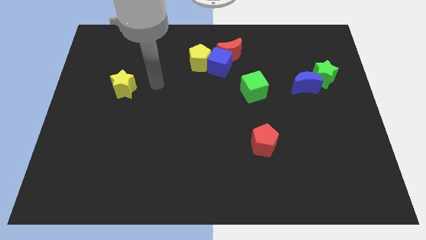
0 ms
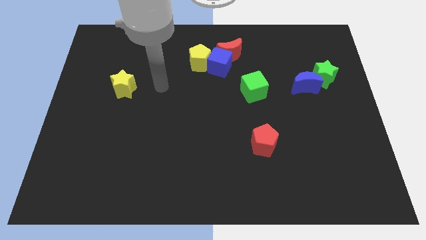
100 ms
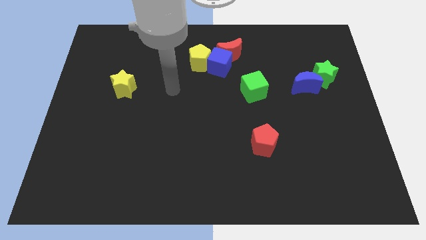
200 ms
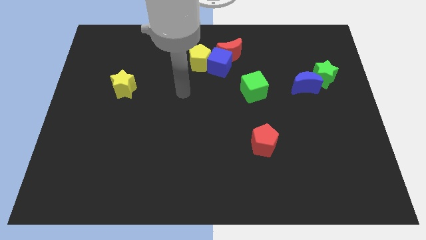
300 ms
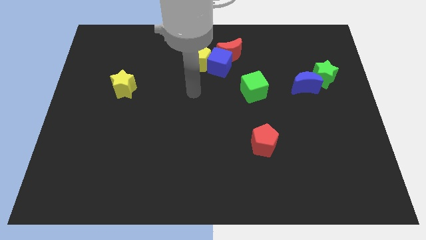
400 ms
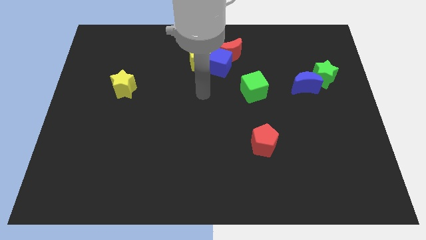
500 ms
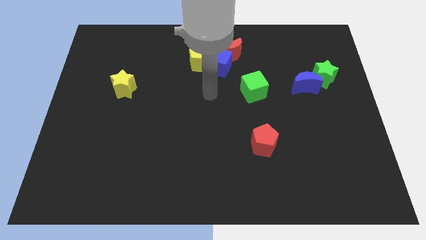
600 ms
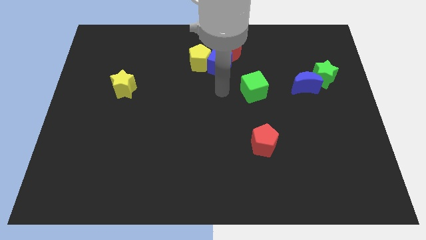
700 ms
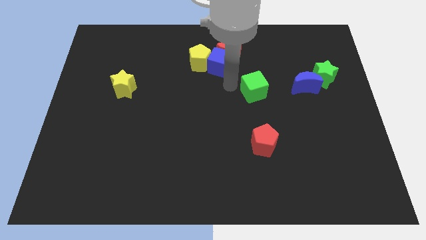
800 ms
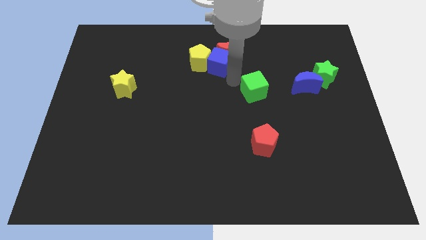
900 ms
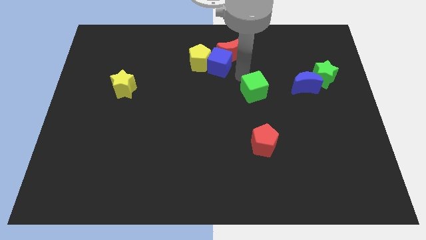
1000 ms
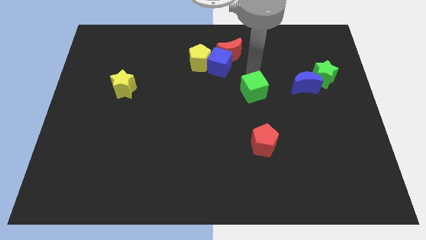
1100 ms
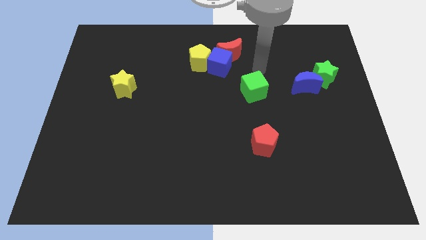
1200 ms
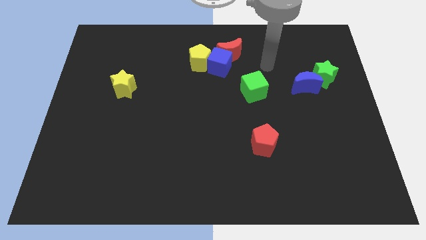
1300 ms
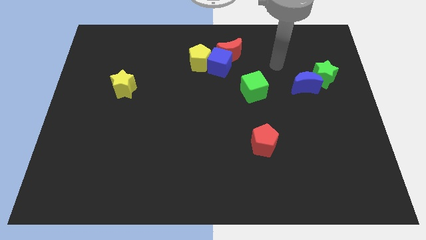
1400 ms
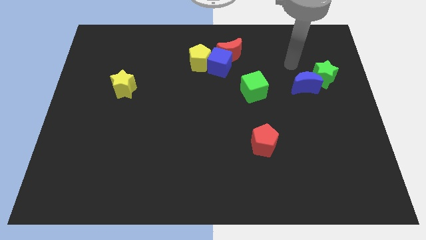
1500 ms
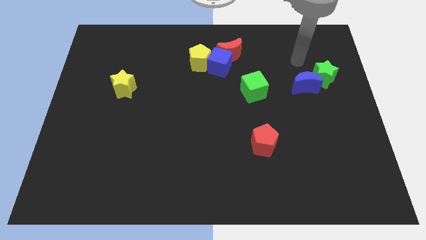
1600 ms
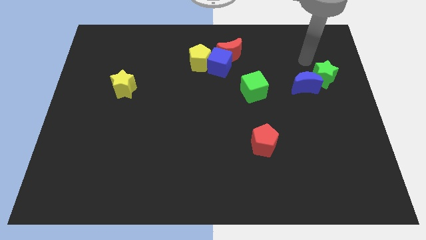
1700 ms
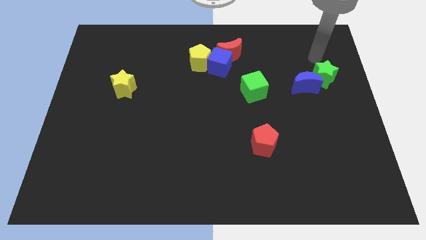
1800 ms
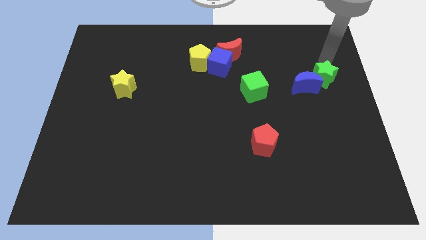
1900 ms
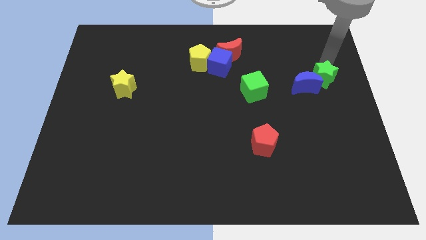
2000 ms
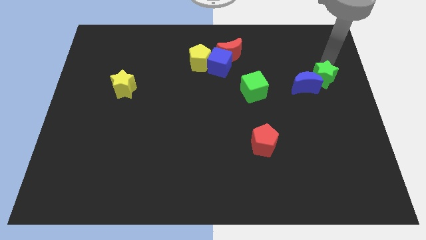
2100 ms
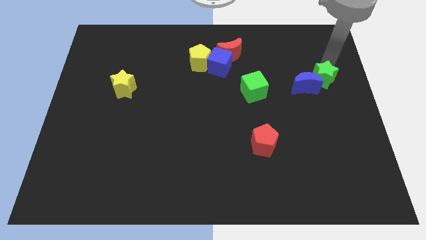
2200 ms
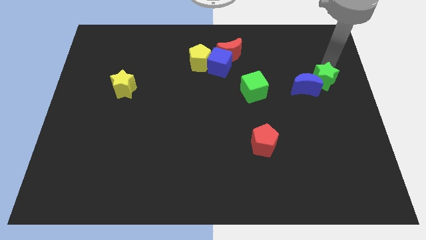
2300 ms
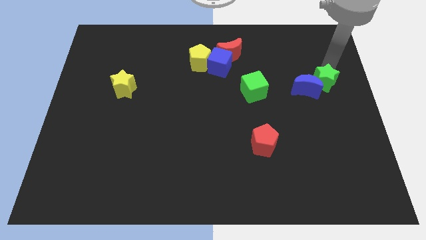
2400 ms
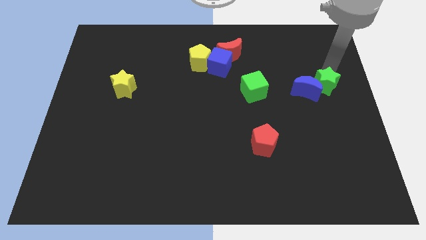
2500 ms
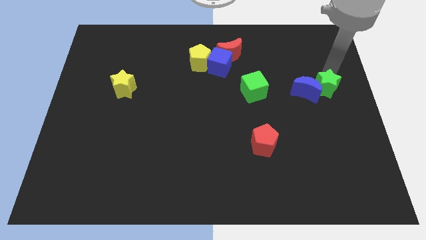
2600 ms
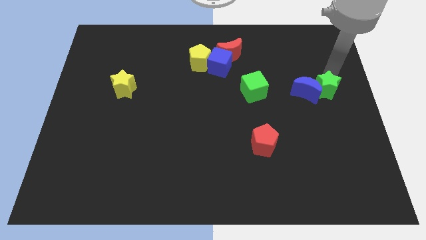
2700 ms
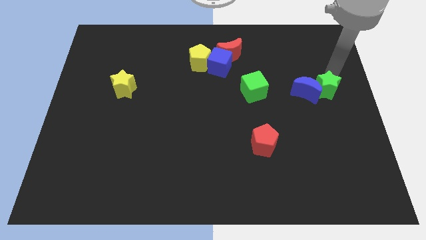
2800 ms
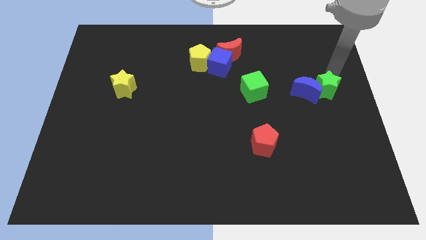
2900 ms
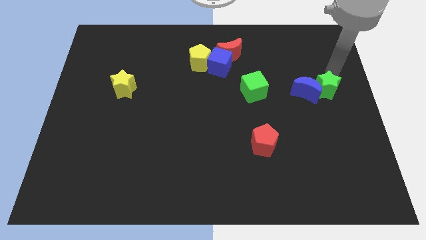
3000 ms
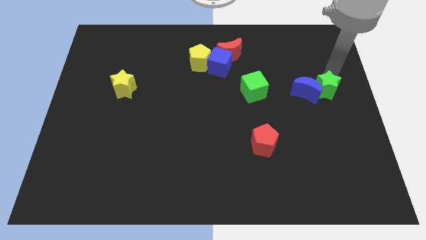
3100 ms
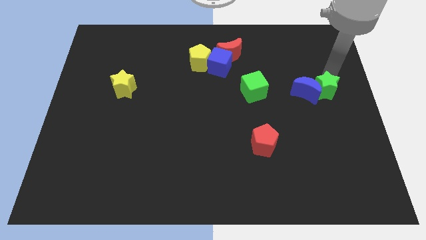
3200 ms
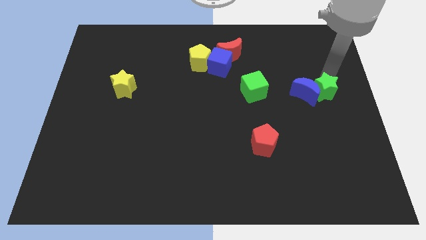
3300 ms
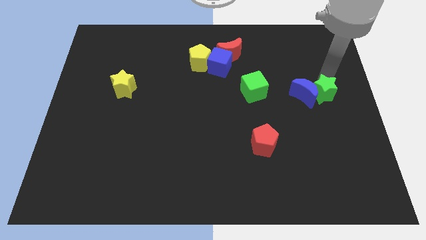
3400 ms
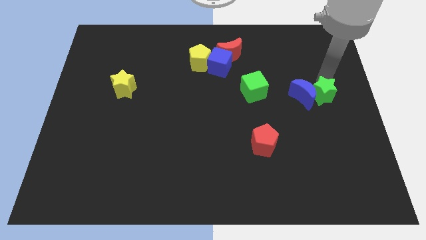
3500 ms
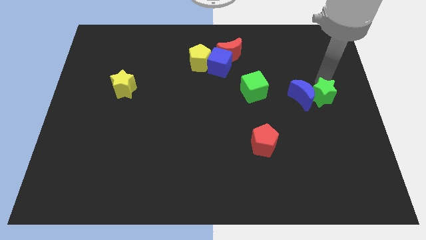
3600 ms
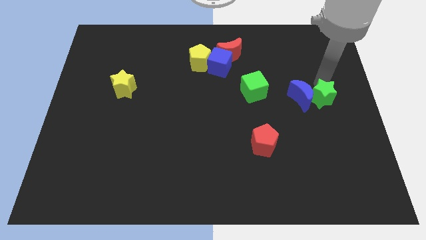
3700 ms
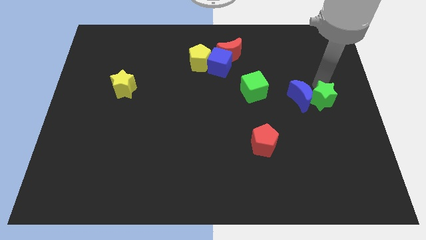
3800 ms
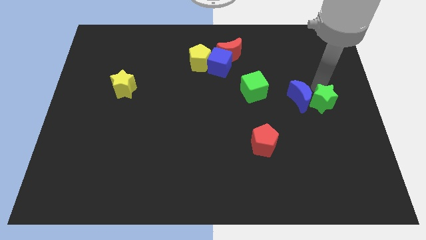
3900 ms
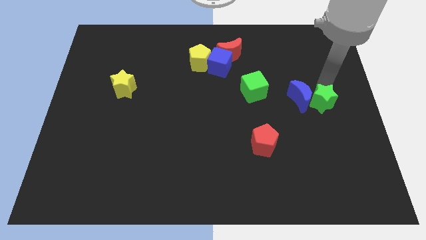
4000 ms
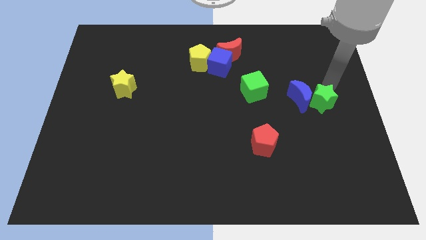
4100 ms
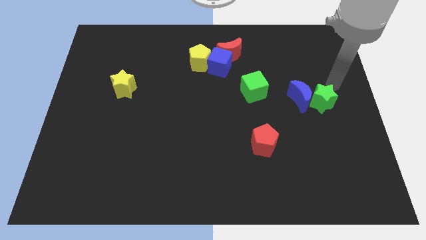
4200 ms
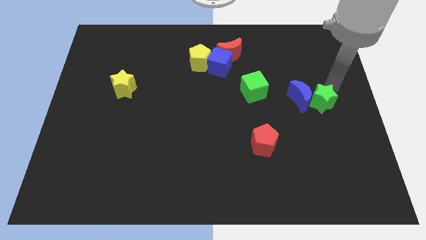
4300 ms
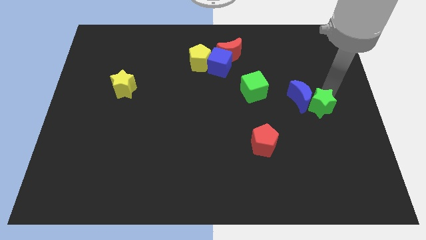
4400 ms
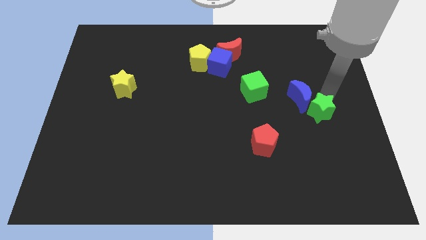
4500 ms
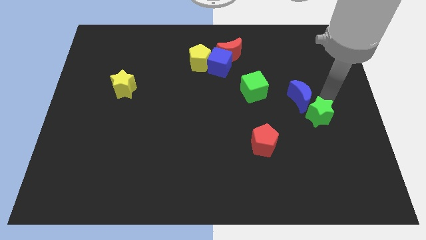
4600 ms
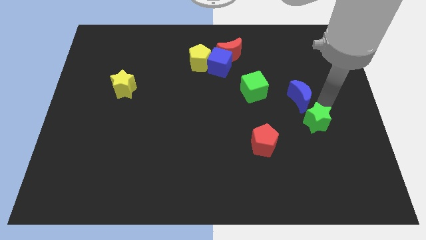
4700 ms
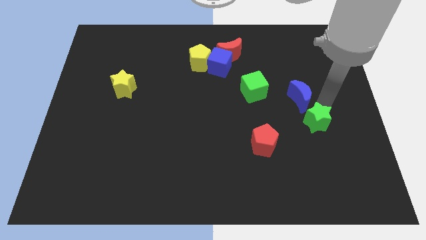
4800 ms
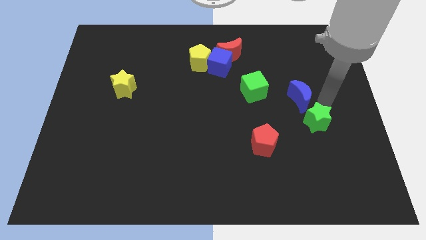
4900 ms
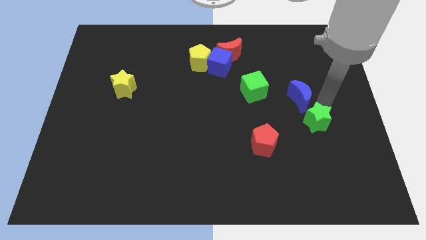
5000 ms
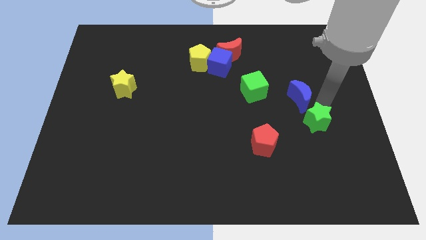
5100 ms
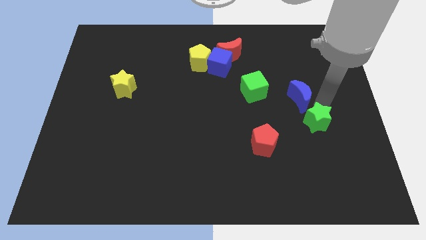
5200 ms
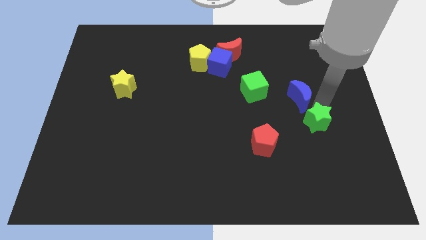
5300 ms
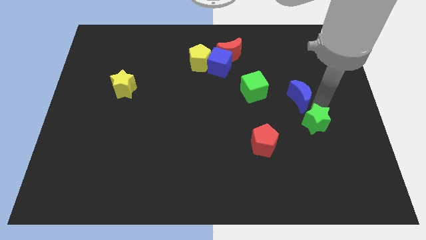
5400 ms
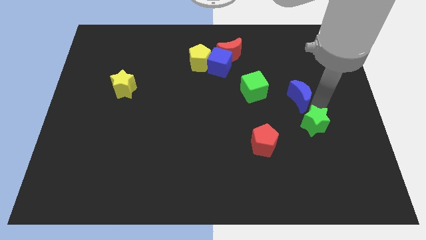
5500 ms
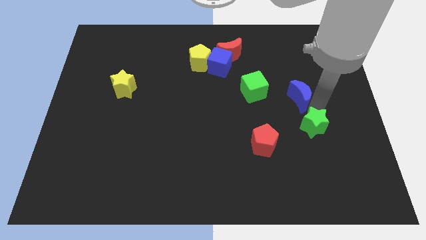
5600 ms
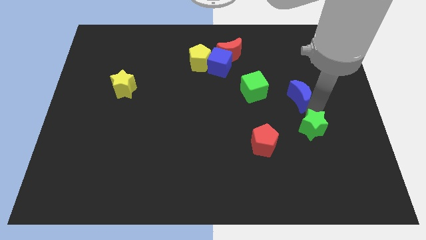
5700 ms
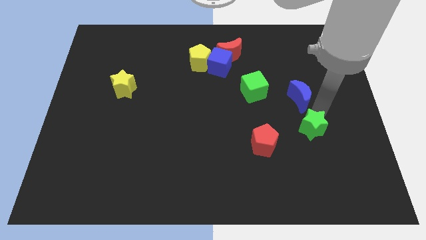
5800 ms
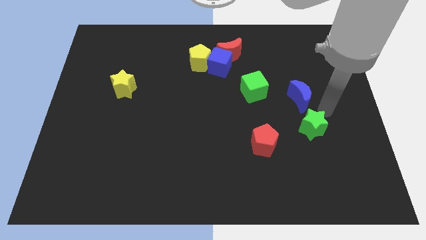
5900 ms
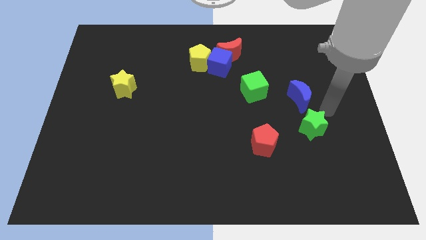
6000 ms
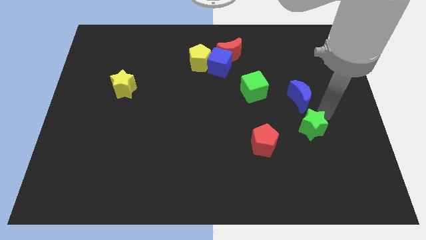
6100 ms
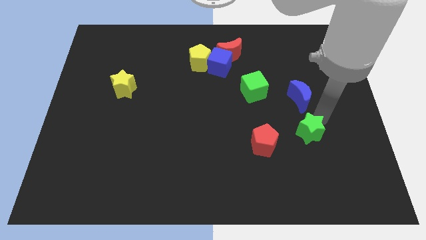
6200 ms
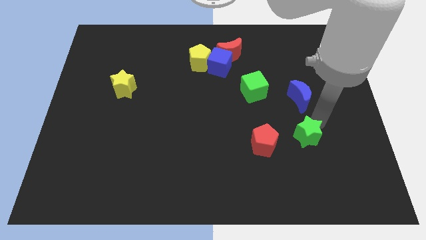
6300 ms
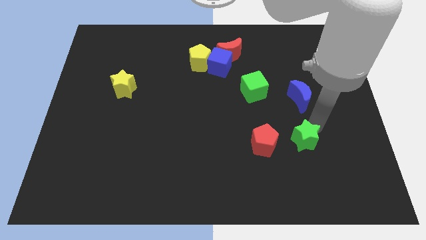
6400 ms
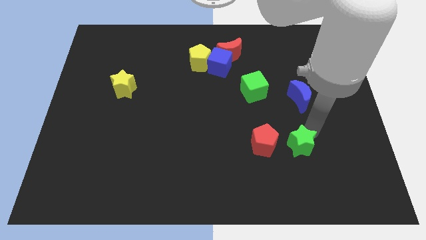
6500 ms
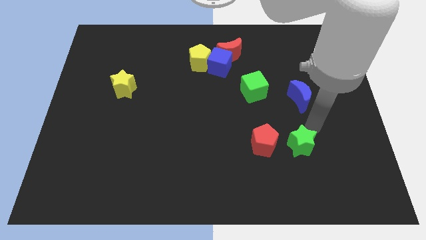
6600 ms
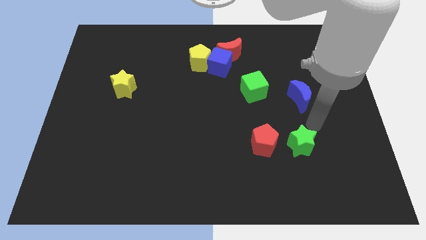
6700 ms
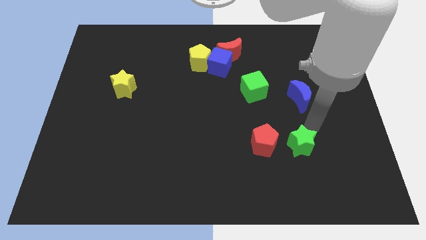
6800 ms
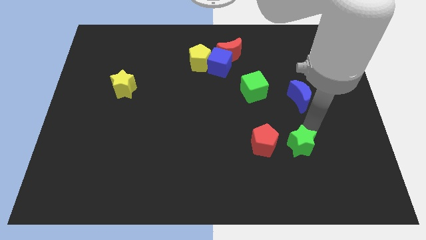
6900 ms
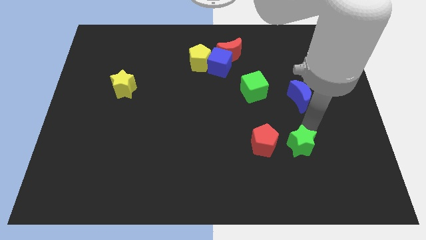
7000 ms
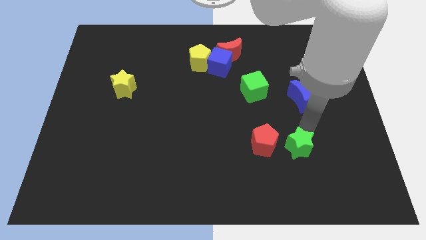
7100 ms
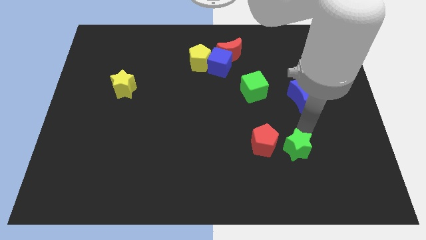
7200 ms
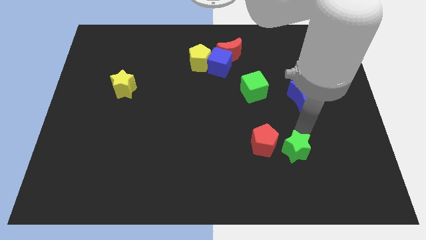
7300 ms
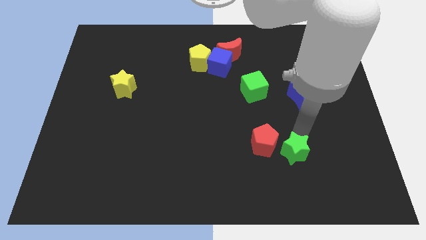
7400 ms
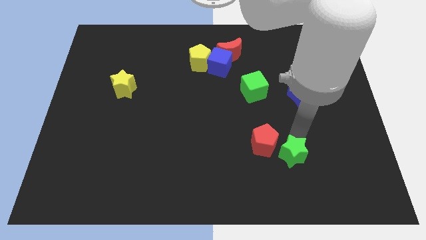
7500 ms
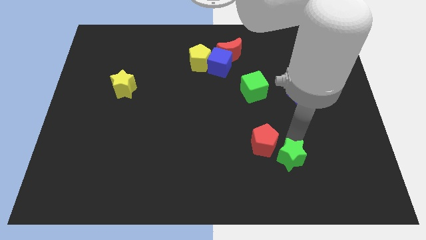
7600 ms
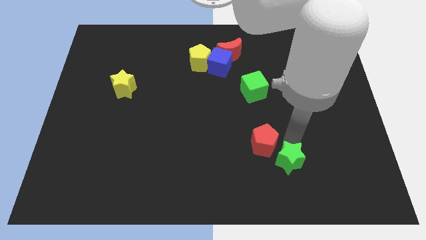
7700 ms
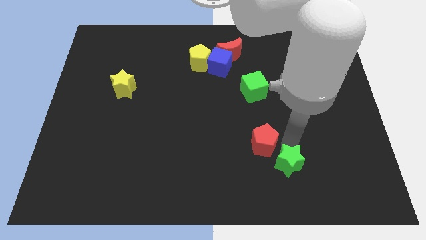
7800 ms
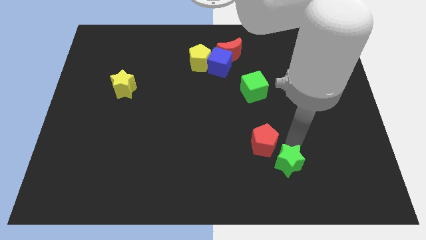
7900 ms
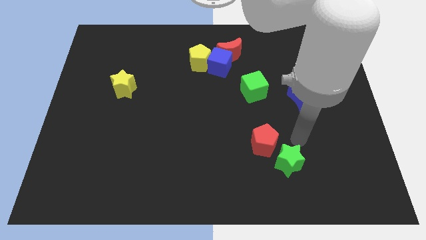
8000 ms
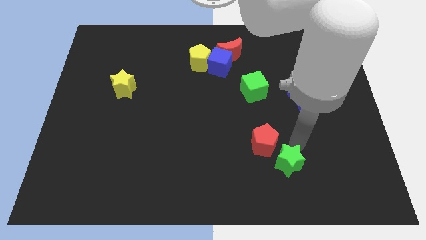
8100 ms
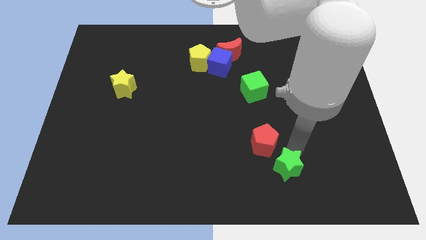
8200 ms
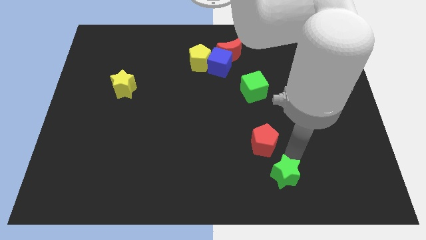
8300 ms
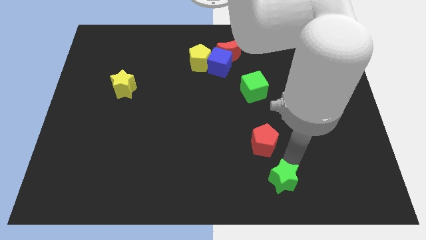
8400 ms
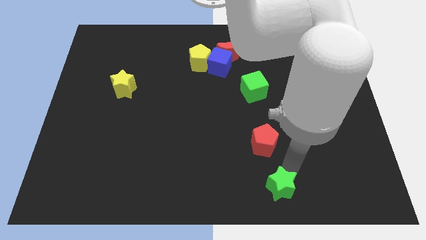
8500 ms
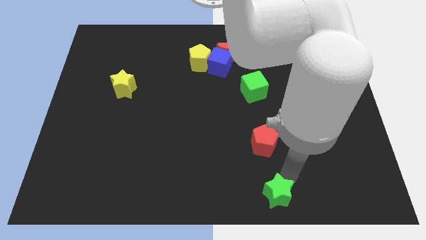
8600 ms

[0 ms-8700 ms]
move the green star to the bottom side
